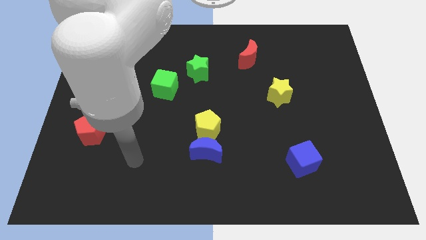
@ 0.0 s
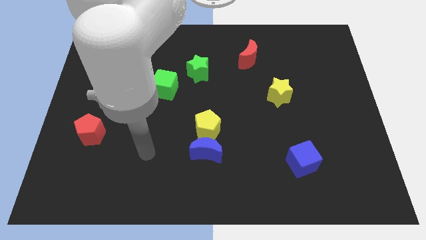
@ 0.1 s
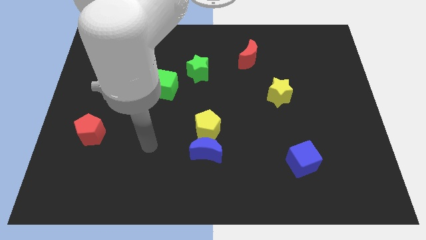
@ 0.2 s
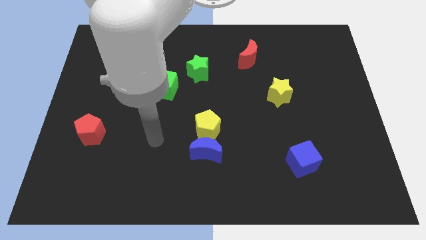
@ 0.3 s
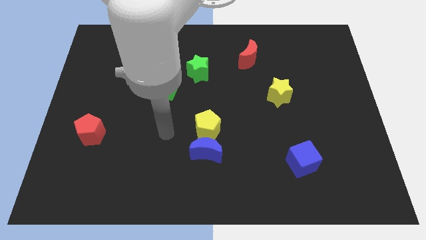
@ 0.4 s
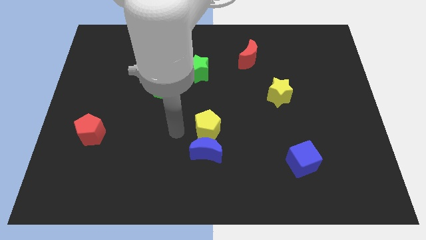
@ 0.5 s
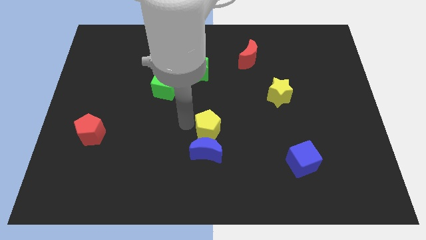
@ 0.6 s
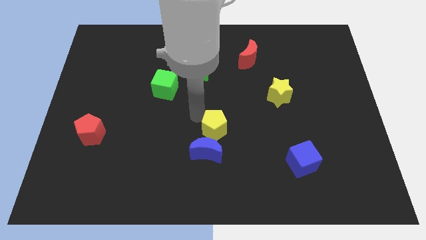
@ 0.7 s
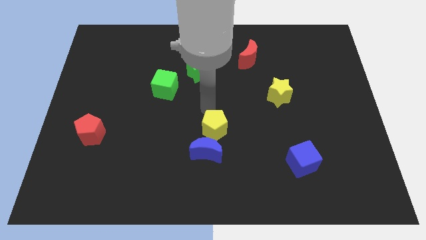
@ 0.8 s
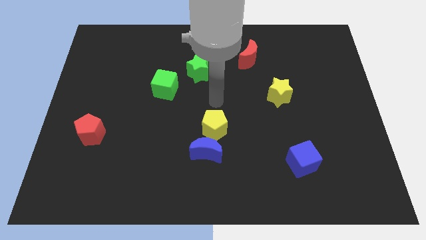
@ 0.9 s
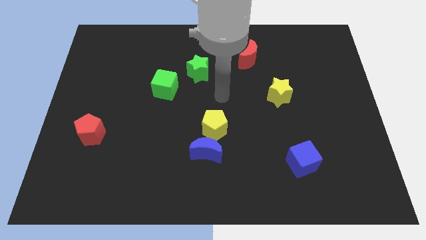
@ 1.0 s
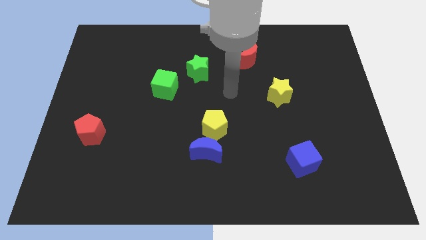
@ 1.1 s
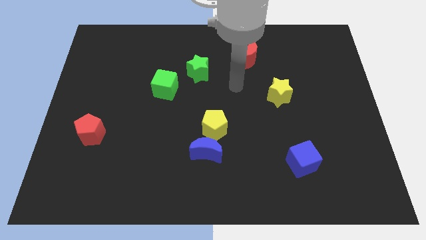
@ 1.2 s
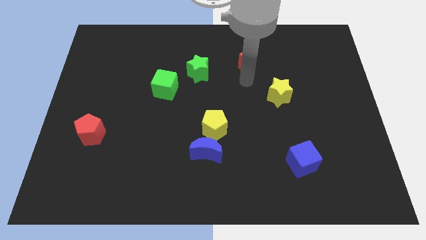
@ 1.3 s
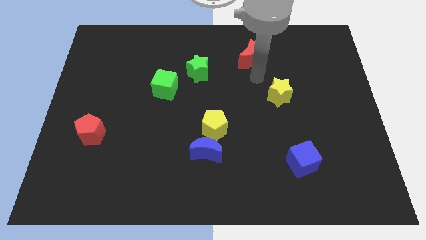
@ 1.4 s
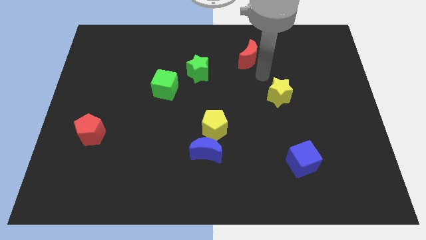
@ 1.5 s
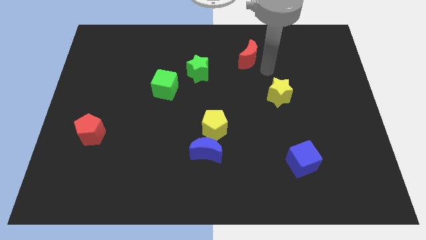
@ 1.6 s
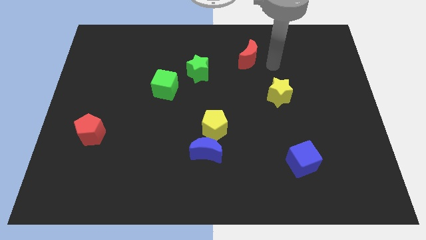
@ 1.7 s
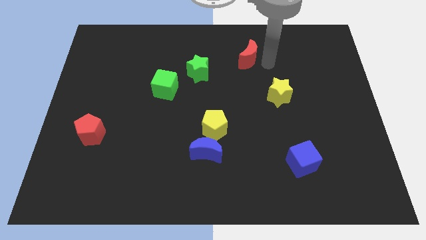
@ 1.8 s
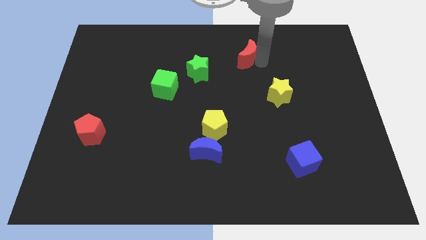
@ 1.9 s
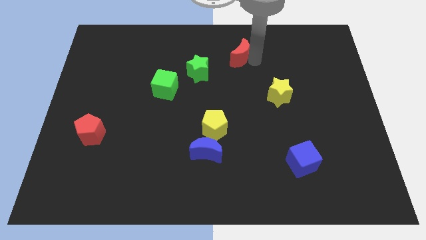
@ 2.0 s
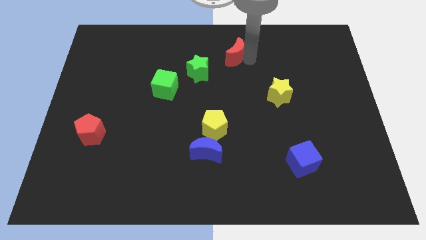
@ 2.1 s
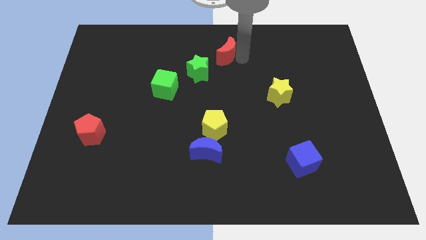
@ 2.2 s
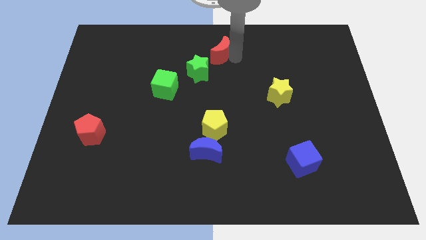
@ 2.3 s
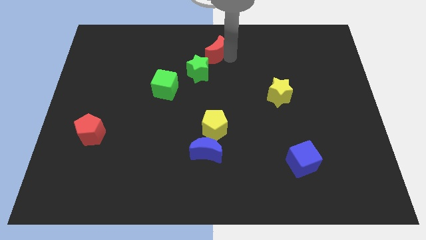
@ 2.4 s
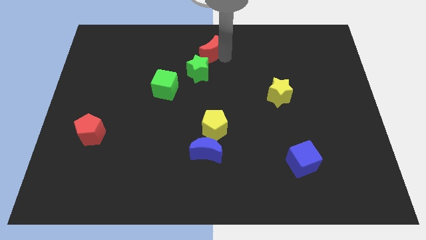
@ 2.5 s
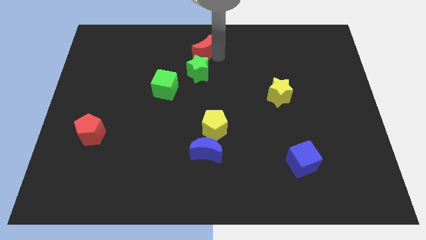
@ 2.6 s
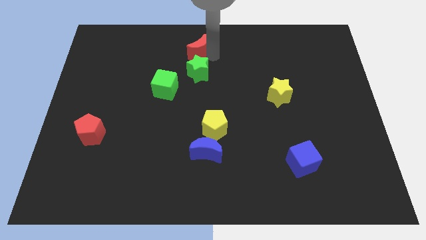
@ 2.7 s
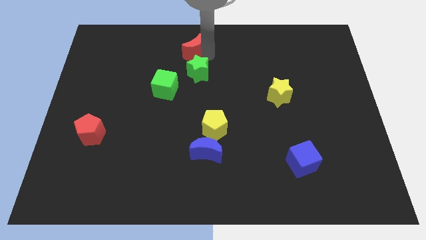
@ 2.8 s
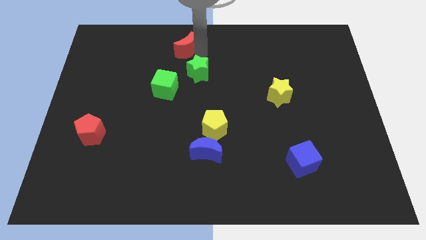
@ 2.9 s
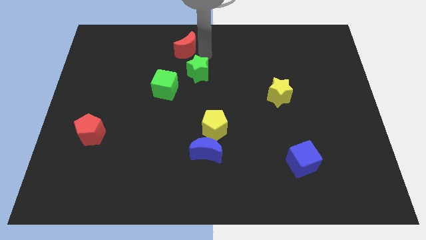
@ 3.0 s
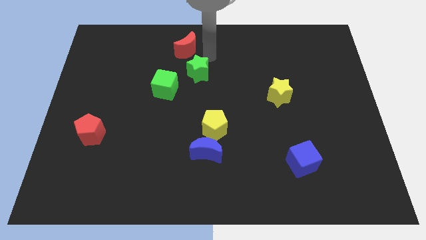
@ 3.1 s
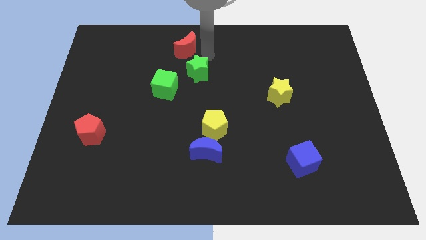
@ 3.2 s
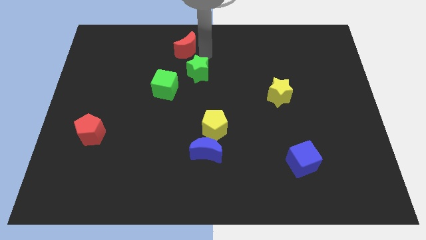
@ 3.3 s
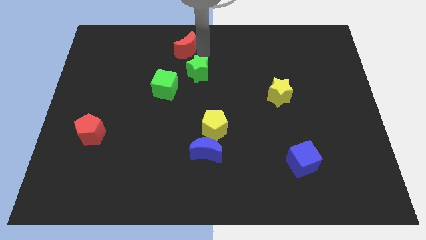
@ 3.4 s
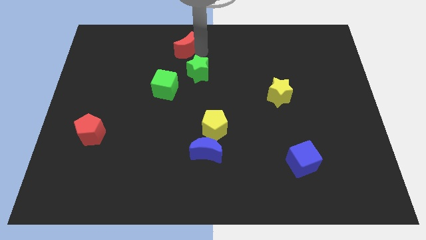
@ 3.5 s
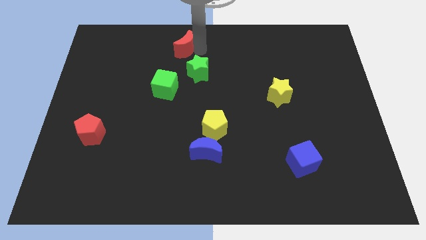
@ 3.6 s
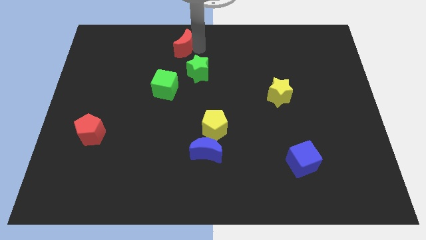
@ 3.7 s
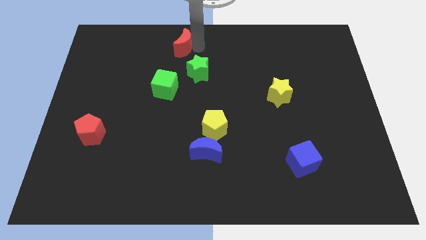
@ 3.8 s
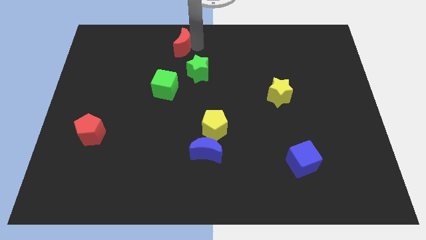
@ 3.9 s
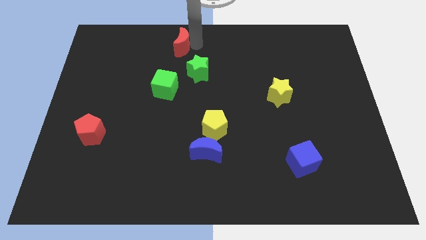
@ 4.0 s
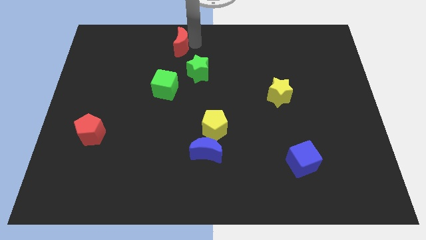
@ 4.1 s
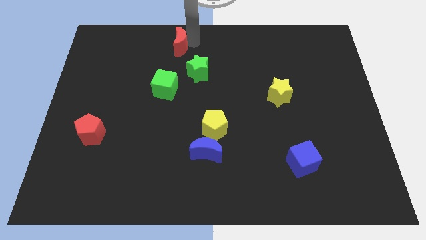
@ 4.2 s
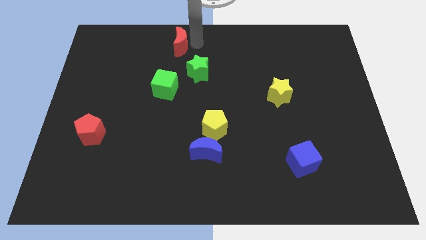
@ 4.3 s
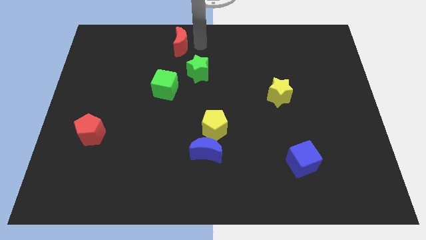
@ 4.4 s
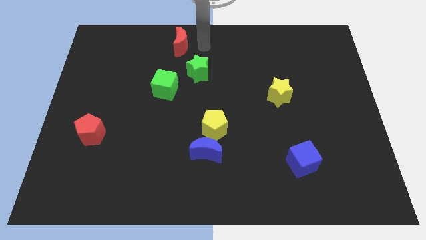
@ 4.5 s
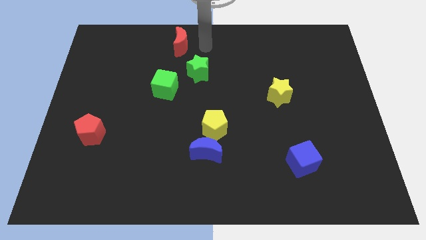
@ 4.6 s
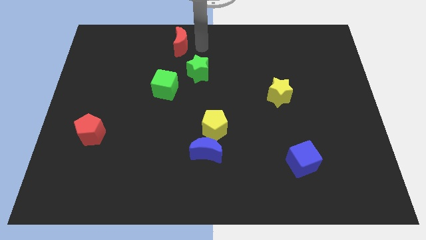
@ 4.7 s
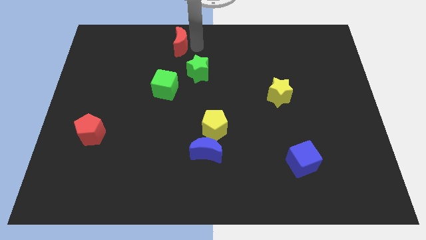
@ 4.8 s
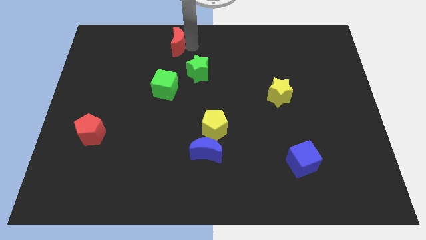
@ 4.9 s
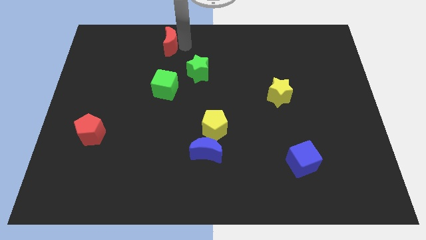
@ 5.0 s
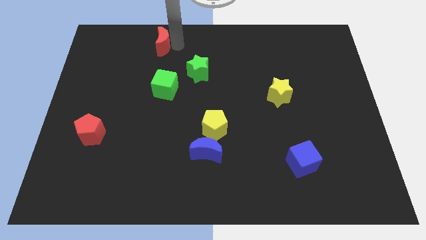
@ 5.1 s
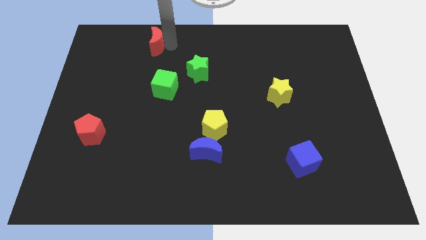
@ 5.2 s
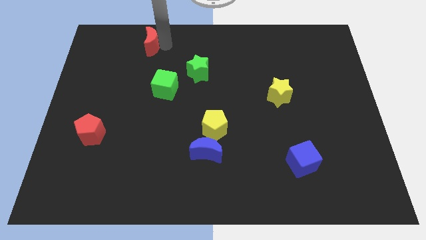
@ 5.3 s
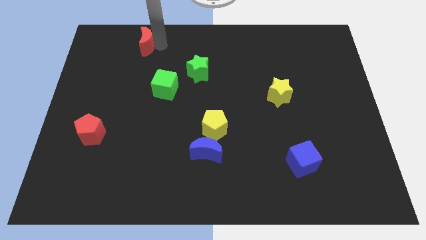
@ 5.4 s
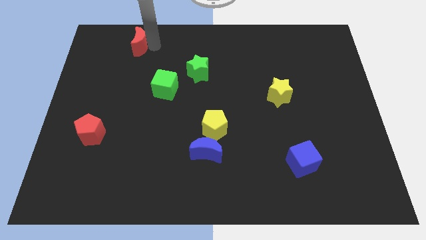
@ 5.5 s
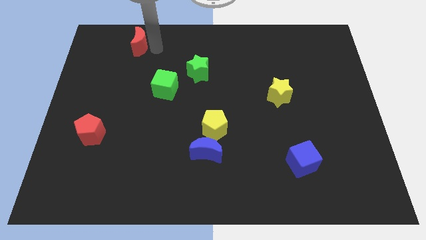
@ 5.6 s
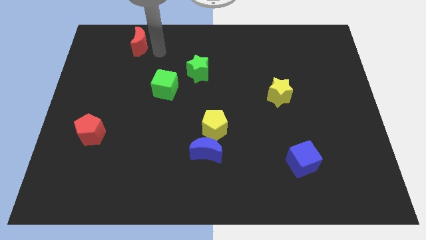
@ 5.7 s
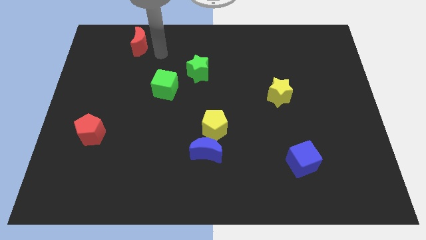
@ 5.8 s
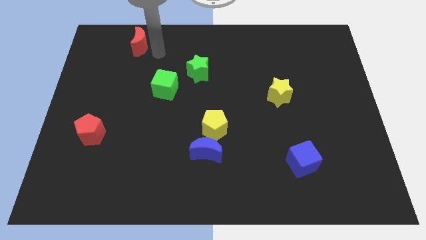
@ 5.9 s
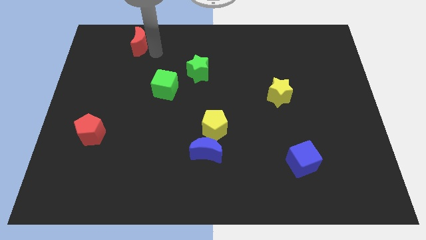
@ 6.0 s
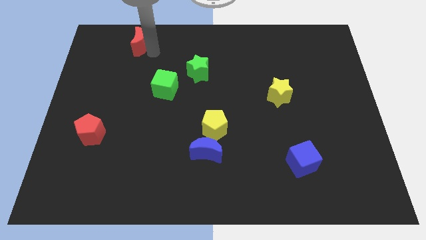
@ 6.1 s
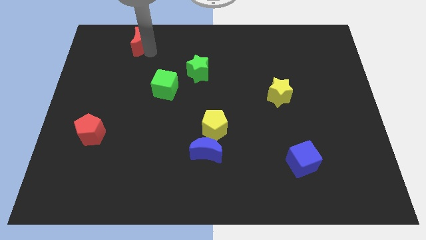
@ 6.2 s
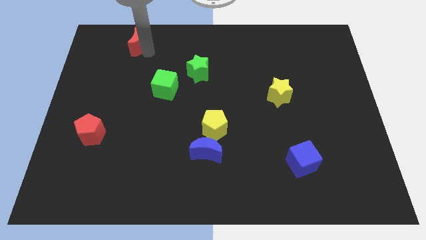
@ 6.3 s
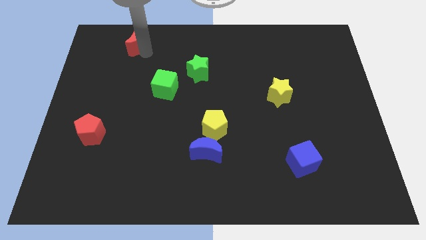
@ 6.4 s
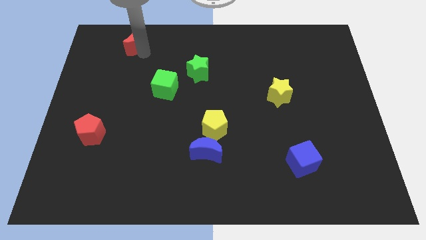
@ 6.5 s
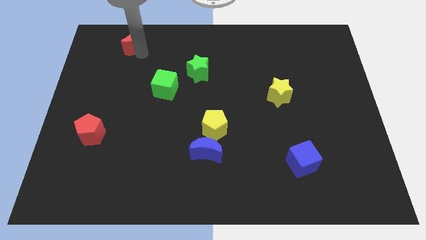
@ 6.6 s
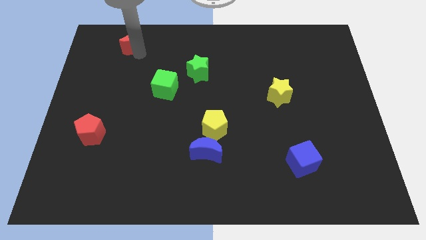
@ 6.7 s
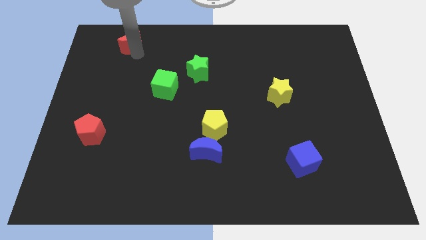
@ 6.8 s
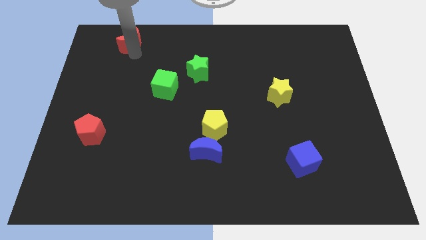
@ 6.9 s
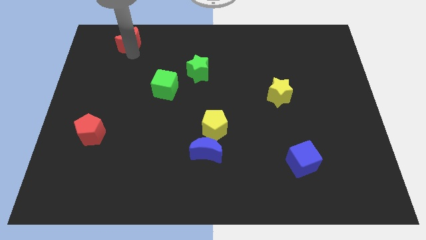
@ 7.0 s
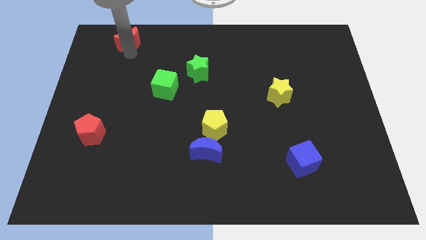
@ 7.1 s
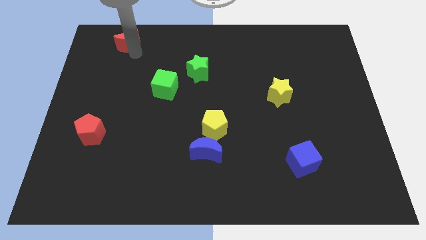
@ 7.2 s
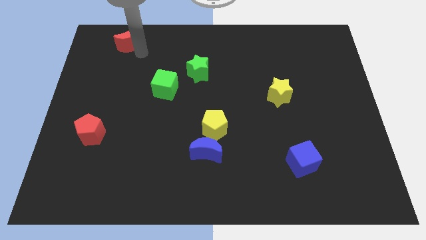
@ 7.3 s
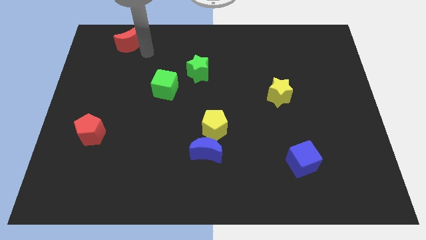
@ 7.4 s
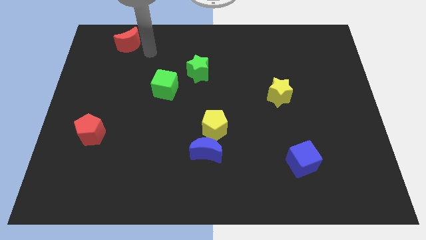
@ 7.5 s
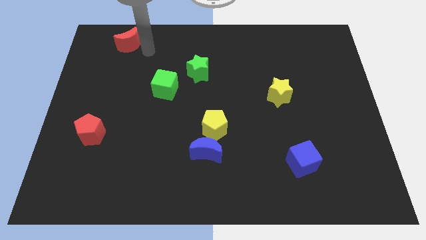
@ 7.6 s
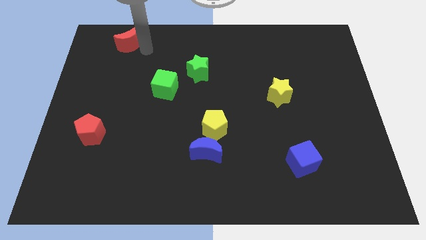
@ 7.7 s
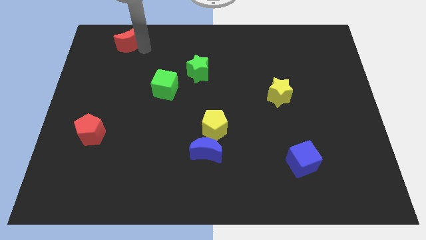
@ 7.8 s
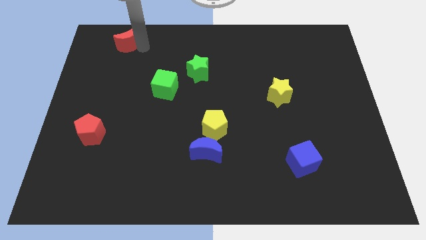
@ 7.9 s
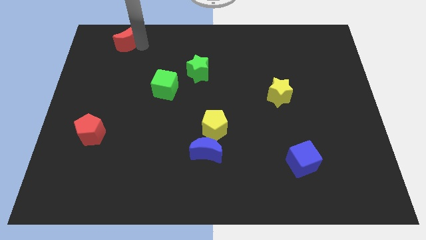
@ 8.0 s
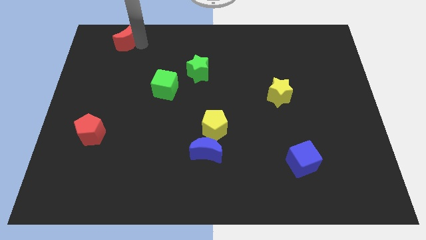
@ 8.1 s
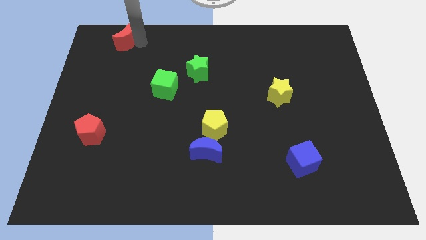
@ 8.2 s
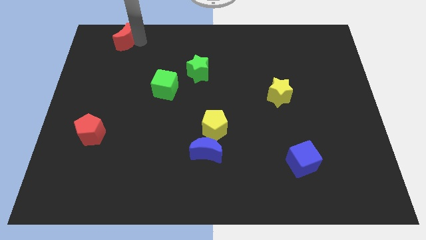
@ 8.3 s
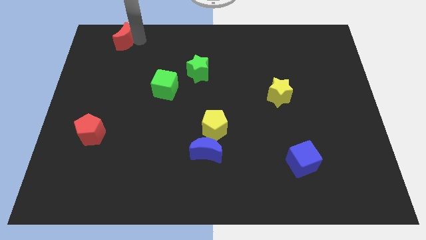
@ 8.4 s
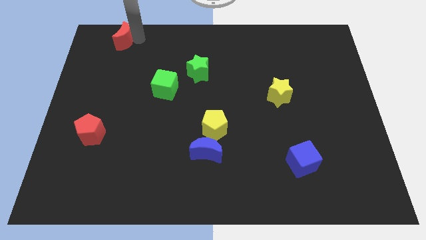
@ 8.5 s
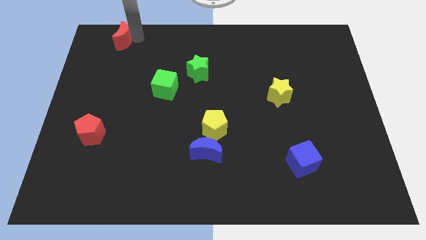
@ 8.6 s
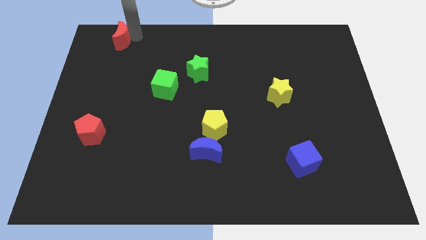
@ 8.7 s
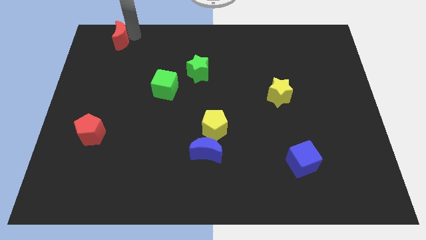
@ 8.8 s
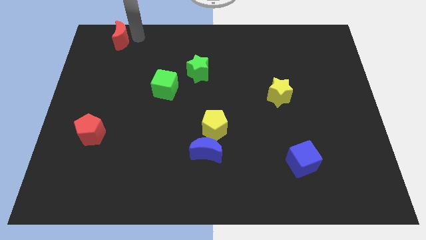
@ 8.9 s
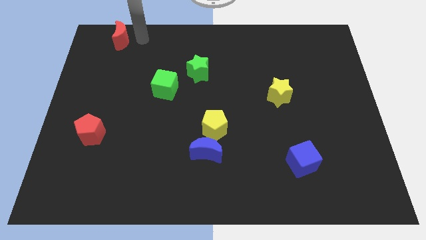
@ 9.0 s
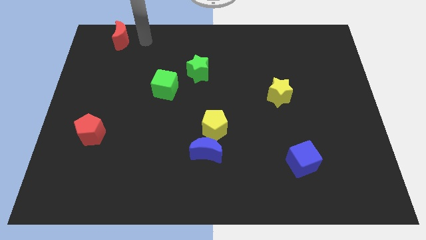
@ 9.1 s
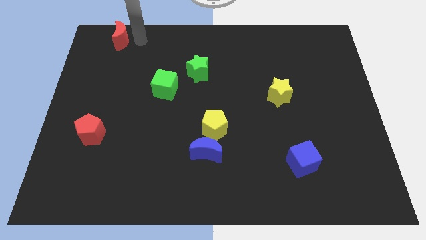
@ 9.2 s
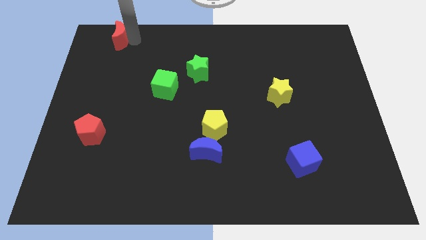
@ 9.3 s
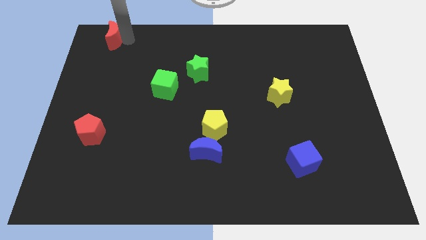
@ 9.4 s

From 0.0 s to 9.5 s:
slide the red moon to the top left
